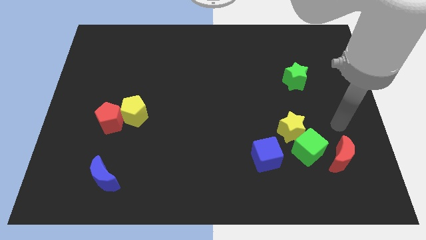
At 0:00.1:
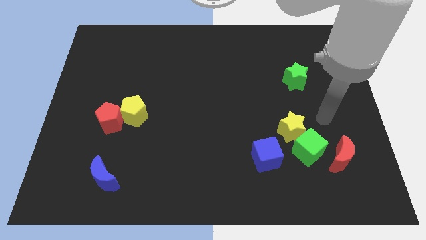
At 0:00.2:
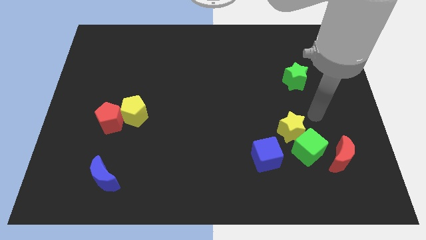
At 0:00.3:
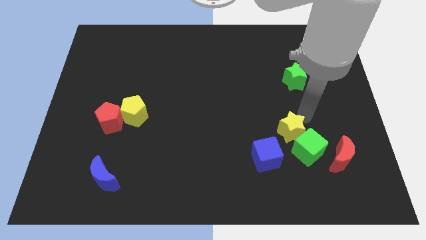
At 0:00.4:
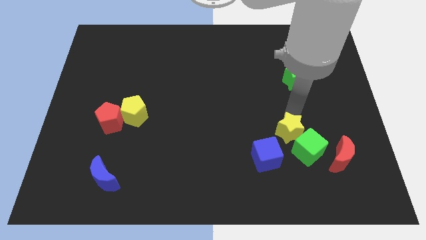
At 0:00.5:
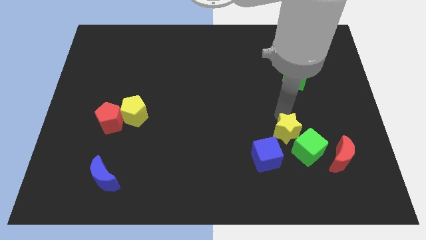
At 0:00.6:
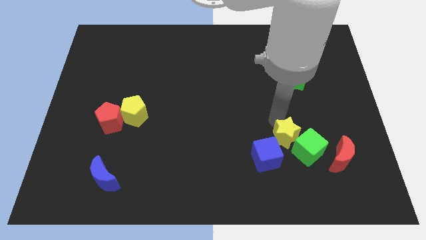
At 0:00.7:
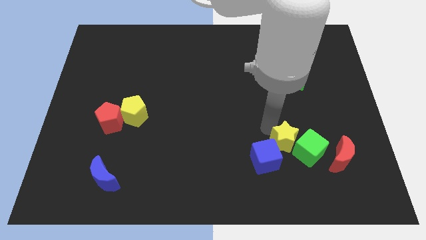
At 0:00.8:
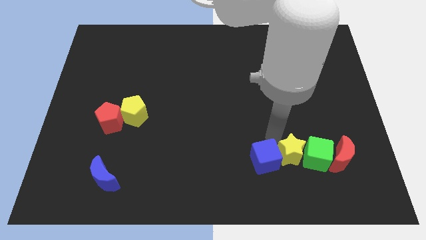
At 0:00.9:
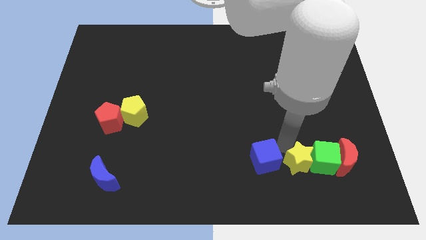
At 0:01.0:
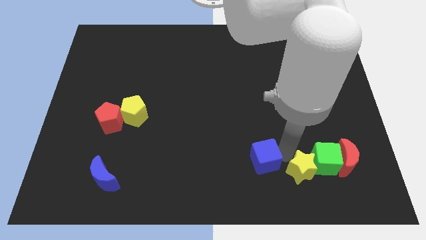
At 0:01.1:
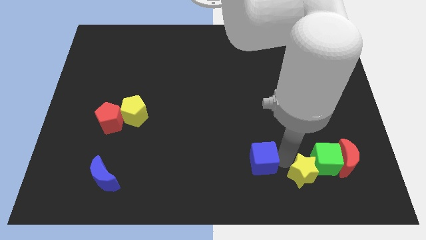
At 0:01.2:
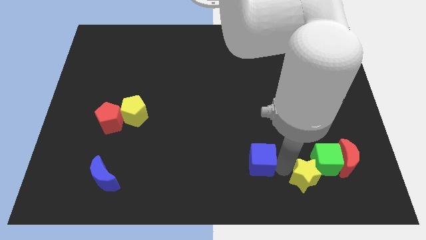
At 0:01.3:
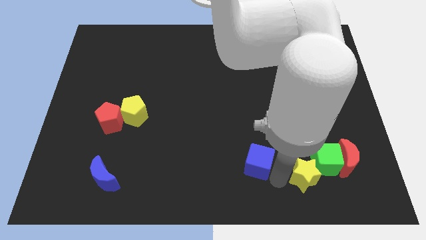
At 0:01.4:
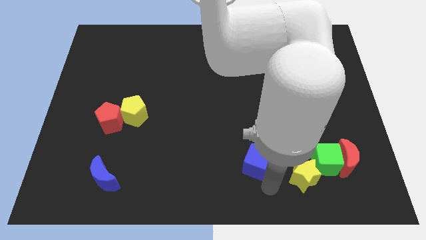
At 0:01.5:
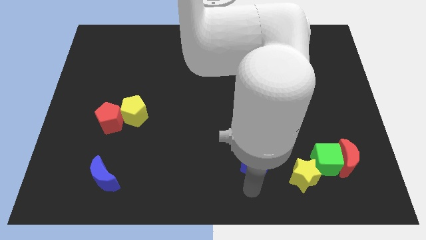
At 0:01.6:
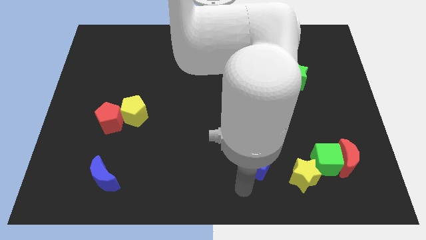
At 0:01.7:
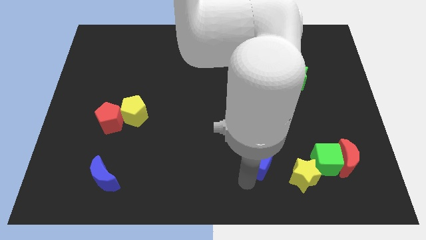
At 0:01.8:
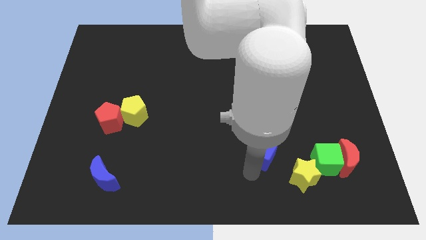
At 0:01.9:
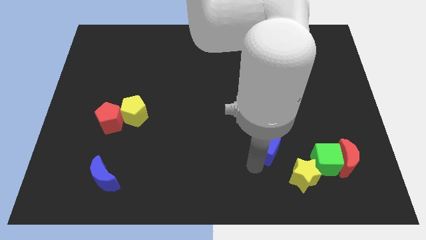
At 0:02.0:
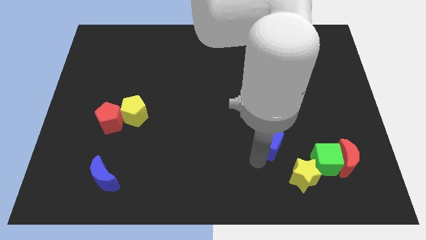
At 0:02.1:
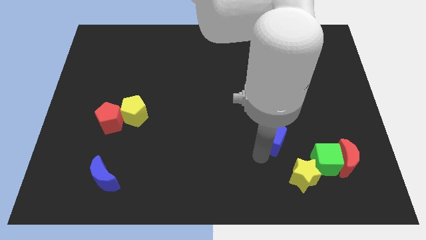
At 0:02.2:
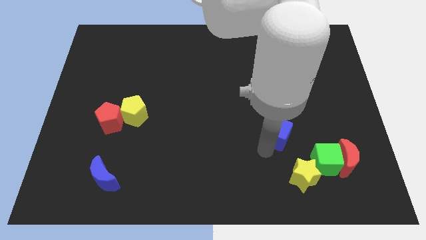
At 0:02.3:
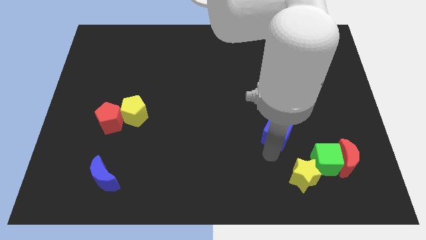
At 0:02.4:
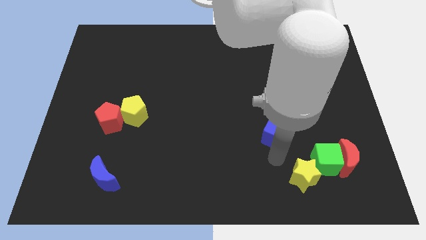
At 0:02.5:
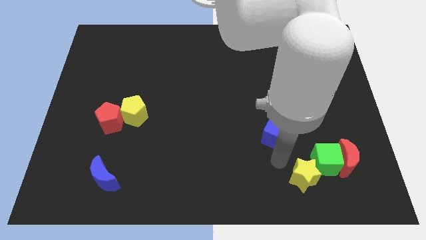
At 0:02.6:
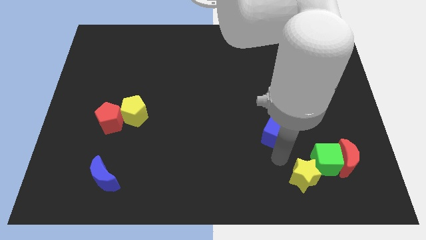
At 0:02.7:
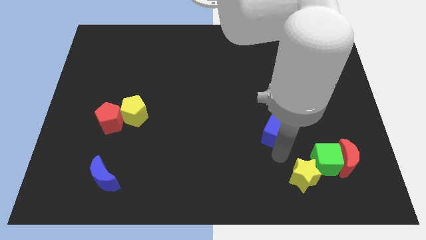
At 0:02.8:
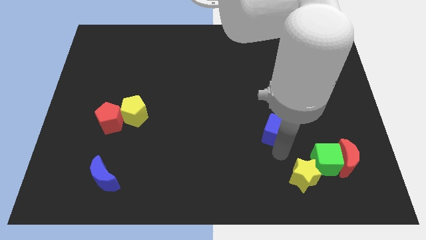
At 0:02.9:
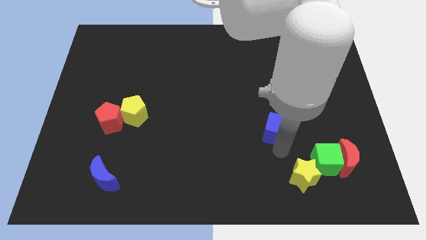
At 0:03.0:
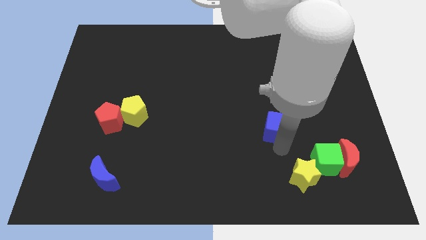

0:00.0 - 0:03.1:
move the blue cube upwards and right diagonally a little

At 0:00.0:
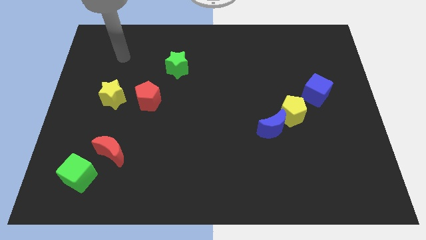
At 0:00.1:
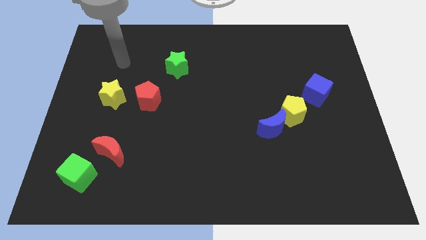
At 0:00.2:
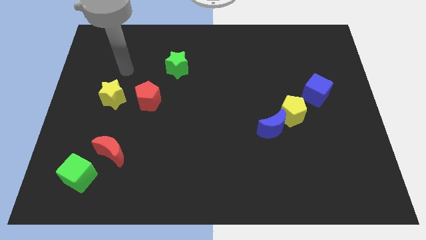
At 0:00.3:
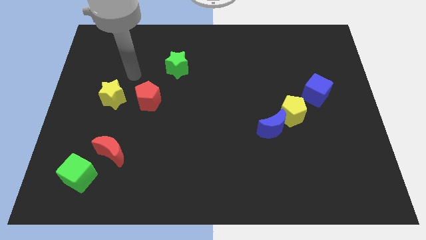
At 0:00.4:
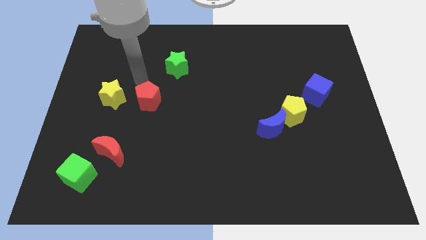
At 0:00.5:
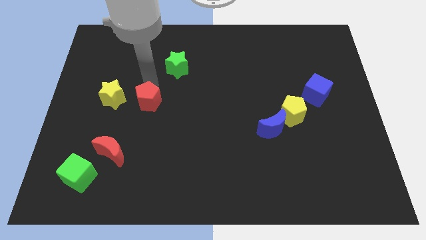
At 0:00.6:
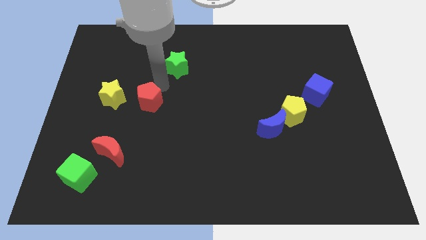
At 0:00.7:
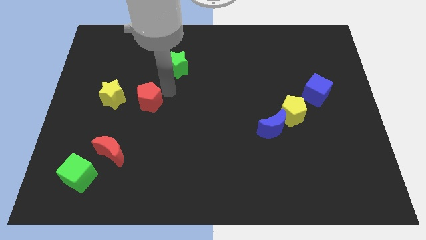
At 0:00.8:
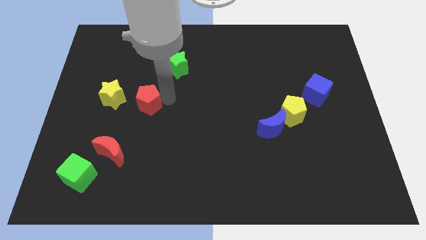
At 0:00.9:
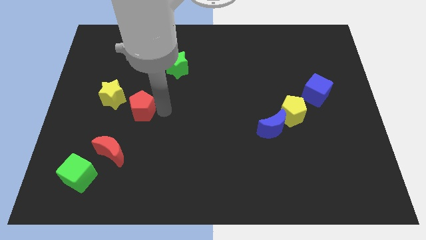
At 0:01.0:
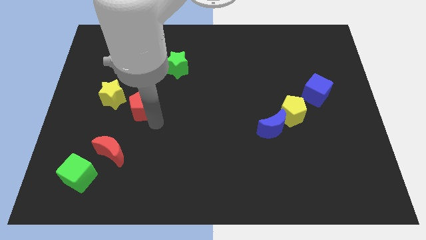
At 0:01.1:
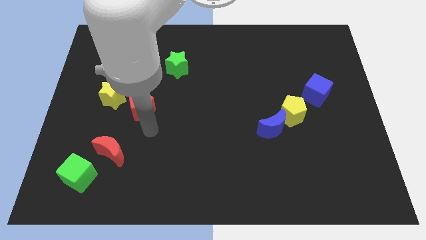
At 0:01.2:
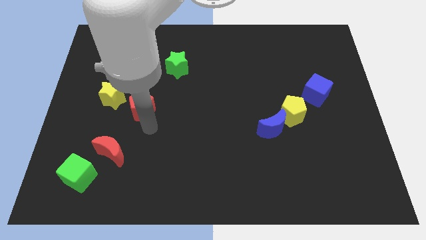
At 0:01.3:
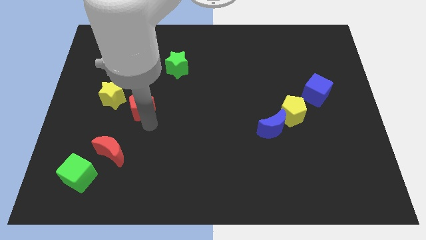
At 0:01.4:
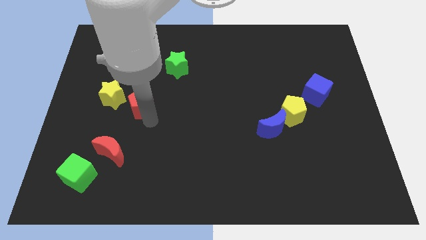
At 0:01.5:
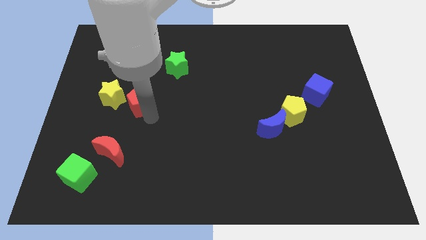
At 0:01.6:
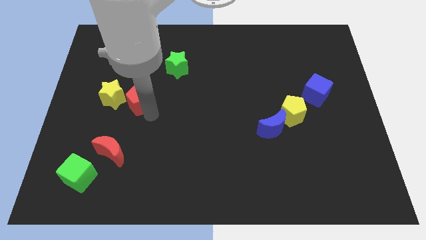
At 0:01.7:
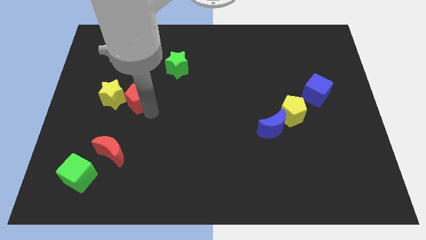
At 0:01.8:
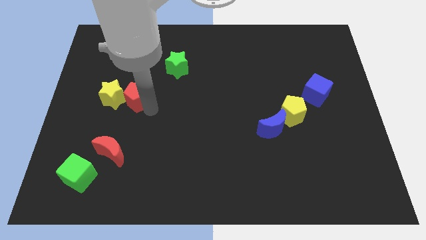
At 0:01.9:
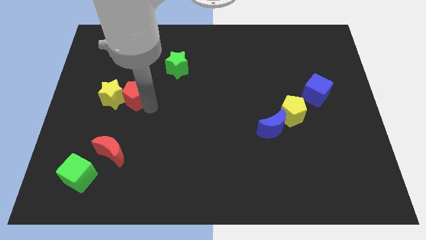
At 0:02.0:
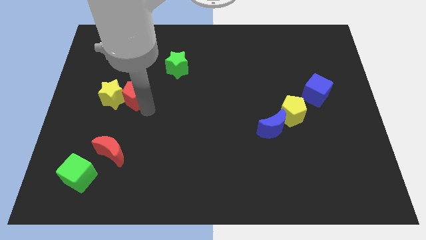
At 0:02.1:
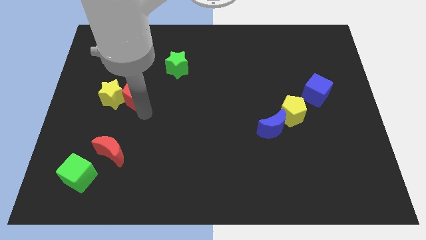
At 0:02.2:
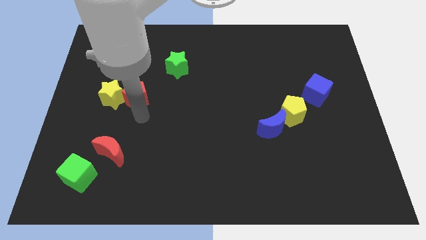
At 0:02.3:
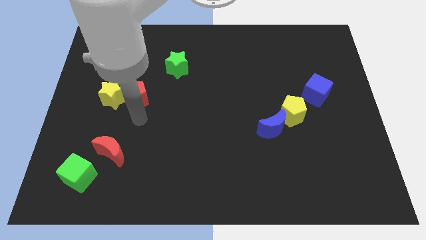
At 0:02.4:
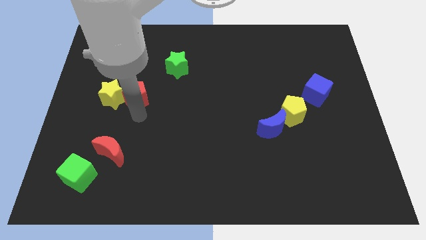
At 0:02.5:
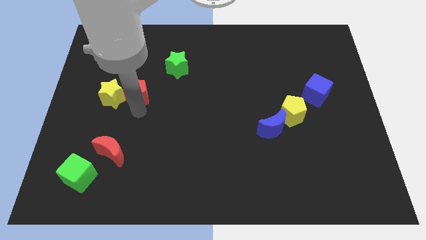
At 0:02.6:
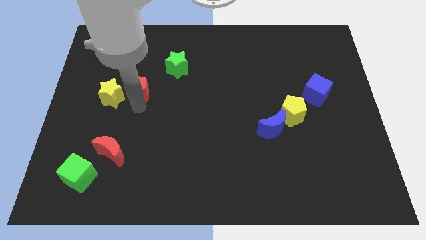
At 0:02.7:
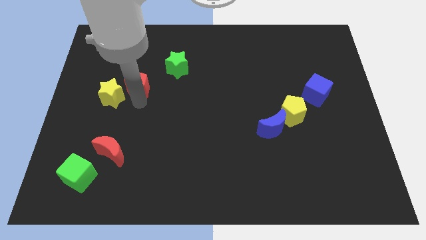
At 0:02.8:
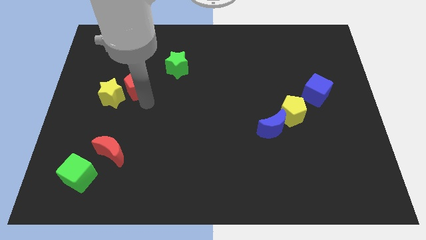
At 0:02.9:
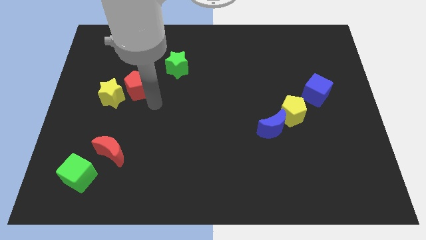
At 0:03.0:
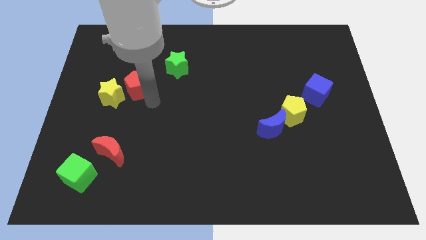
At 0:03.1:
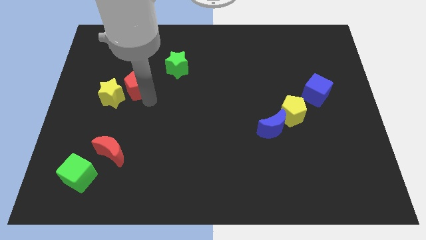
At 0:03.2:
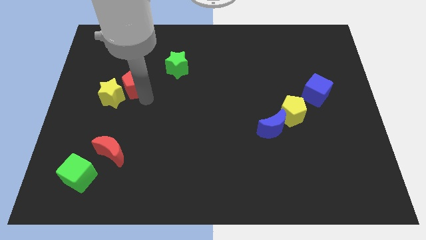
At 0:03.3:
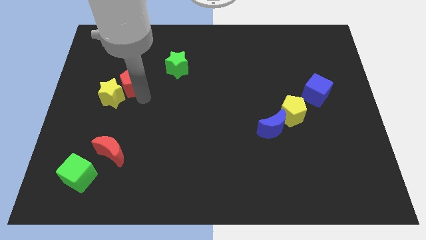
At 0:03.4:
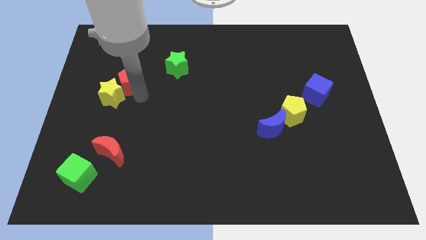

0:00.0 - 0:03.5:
slide the red pentagon upwards and left diagonally somewhat

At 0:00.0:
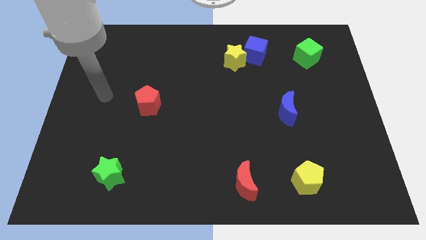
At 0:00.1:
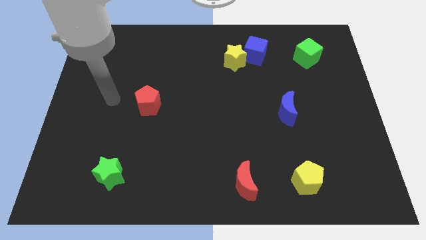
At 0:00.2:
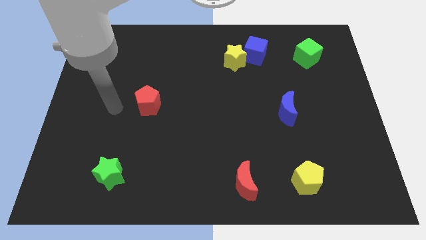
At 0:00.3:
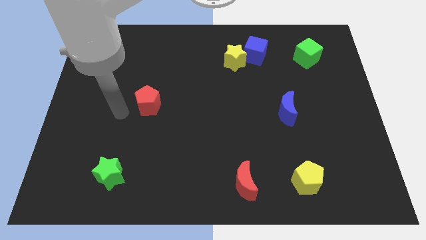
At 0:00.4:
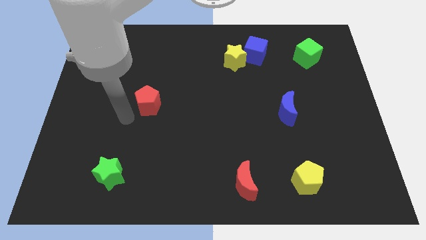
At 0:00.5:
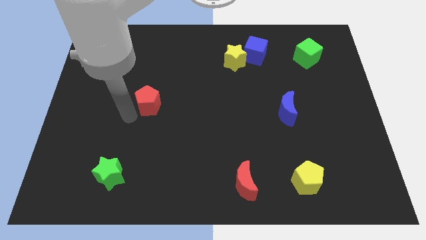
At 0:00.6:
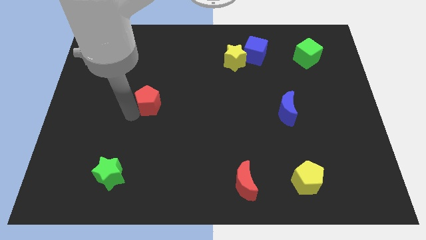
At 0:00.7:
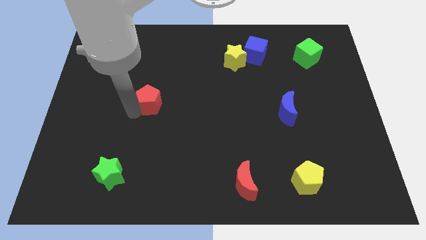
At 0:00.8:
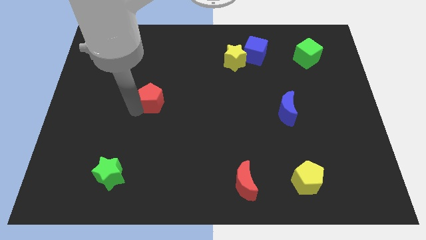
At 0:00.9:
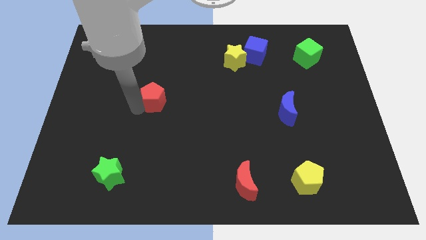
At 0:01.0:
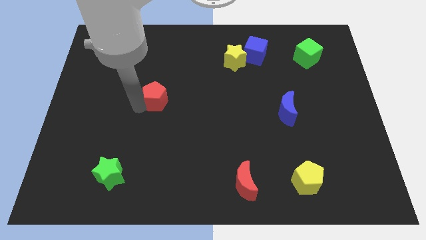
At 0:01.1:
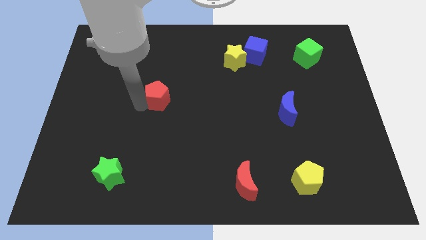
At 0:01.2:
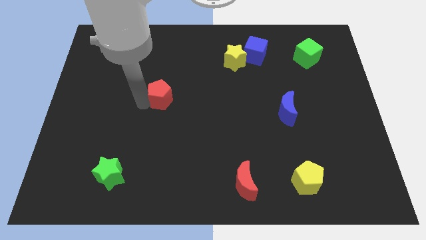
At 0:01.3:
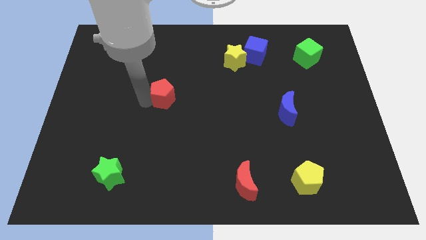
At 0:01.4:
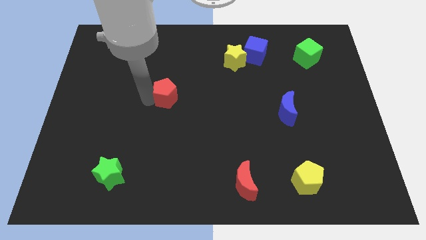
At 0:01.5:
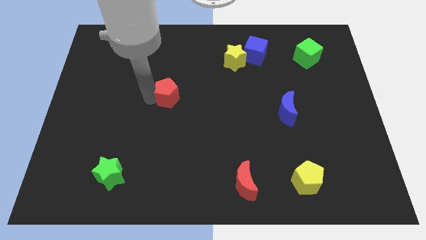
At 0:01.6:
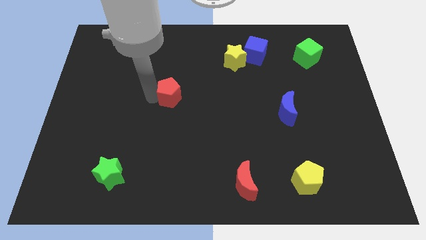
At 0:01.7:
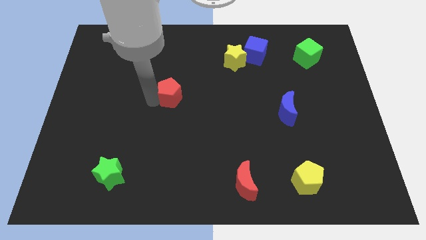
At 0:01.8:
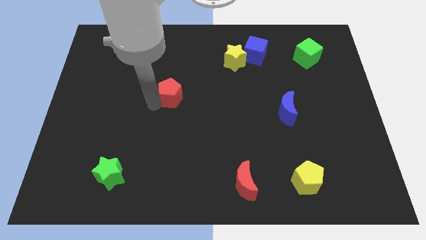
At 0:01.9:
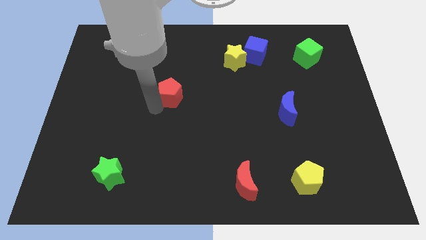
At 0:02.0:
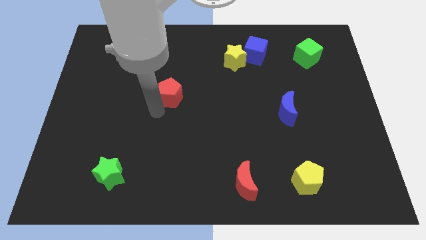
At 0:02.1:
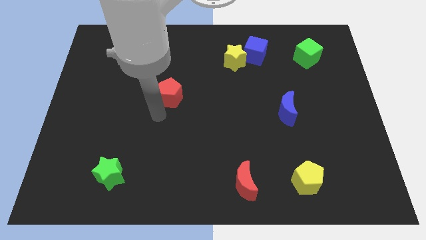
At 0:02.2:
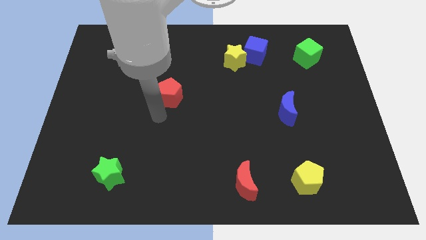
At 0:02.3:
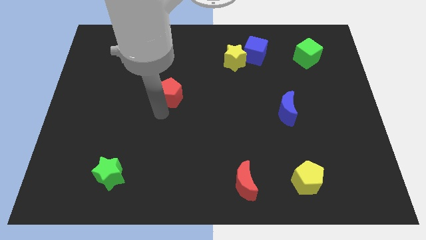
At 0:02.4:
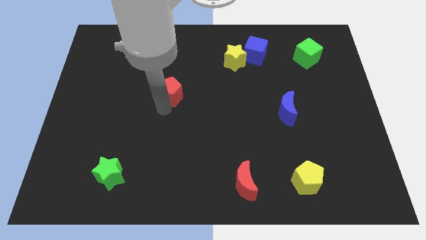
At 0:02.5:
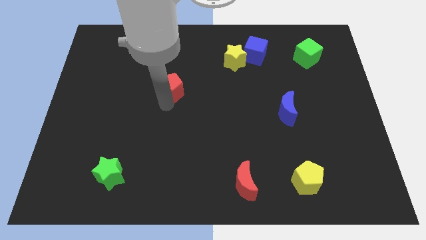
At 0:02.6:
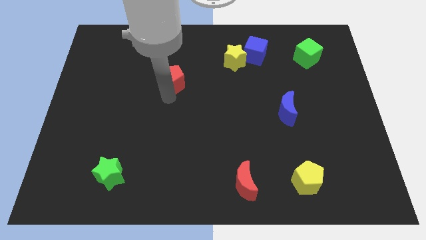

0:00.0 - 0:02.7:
slide the red pentagon a bit diagonally upwards and right
